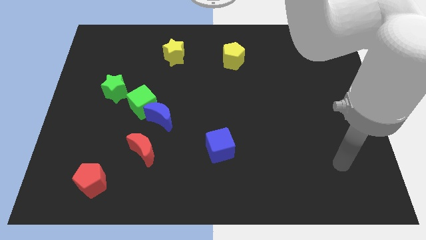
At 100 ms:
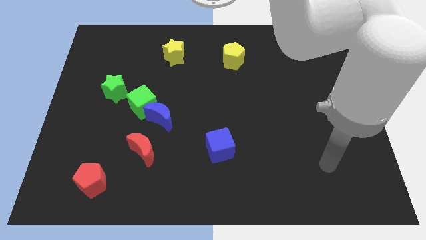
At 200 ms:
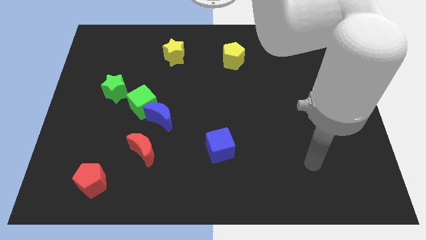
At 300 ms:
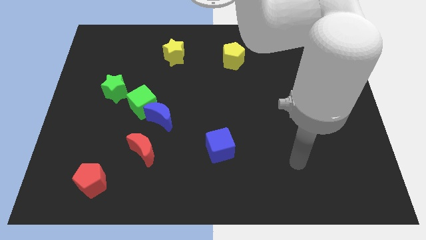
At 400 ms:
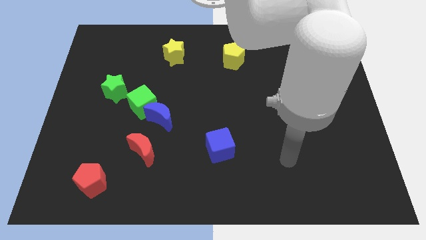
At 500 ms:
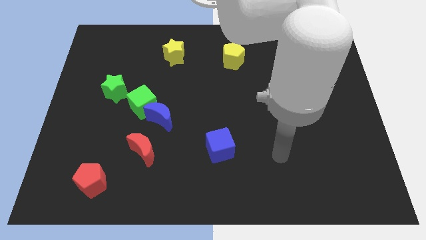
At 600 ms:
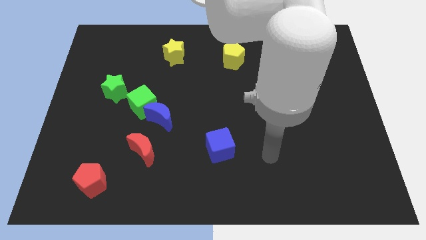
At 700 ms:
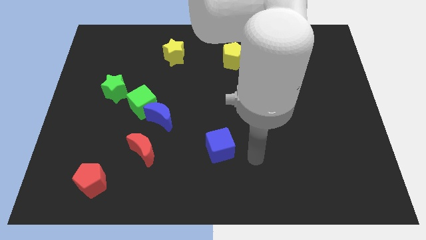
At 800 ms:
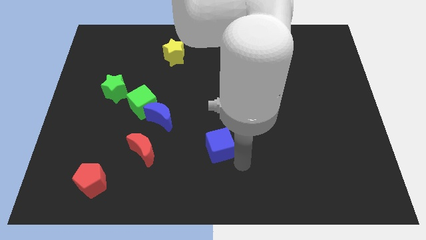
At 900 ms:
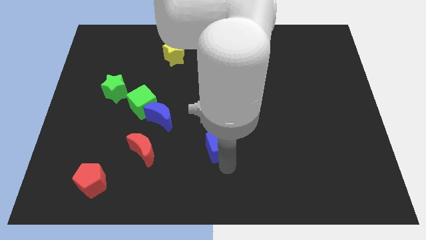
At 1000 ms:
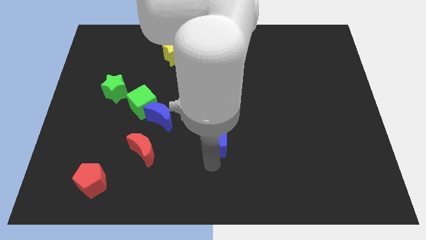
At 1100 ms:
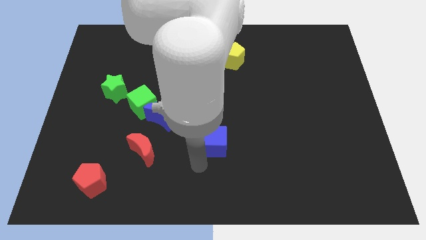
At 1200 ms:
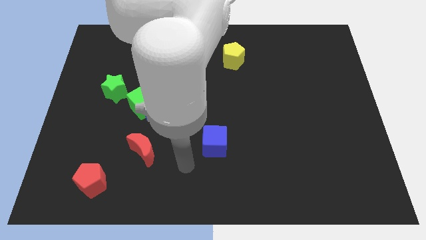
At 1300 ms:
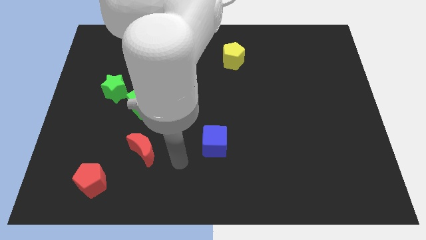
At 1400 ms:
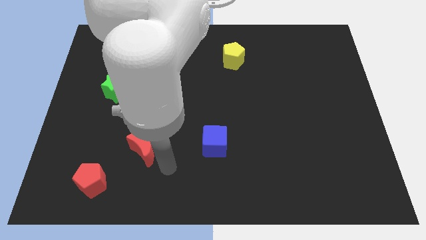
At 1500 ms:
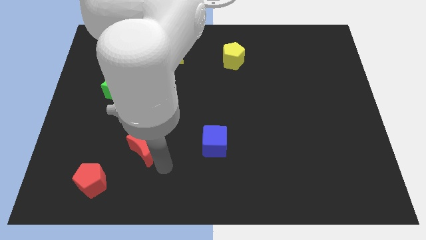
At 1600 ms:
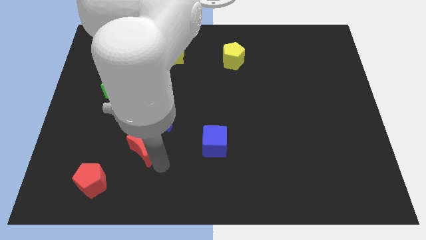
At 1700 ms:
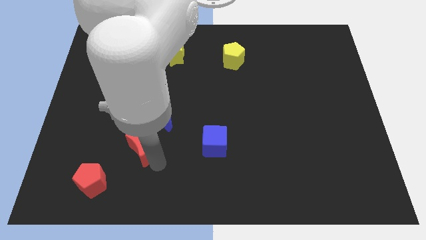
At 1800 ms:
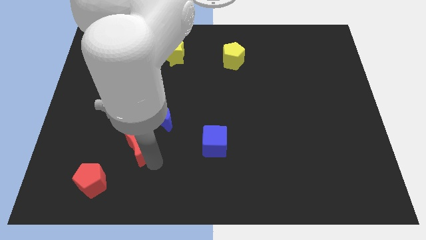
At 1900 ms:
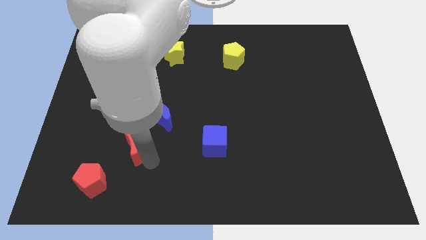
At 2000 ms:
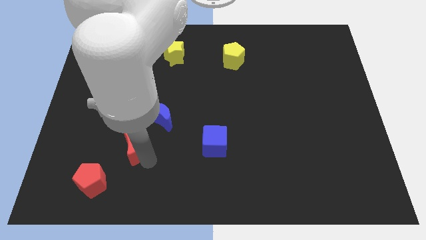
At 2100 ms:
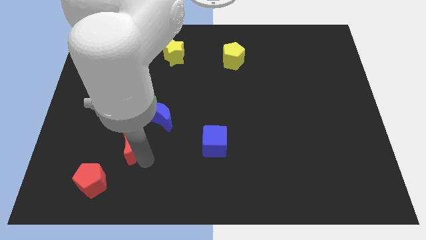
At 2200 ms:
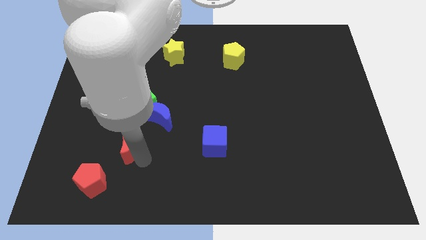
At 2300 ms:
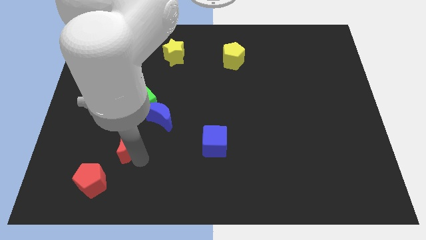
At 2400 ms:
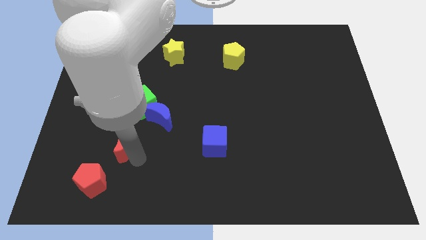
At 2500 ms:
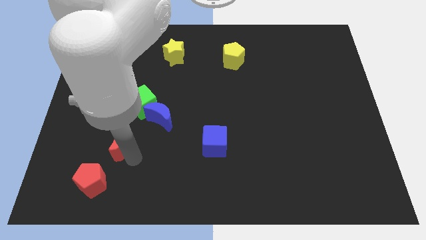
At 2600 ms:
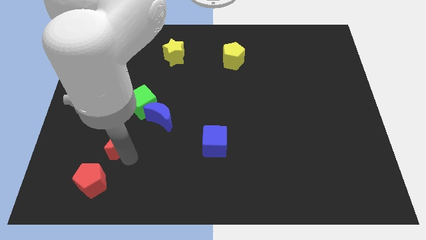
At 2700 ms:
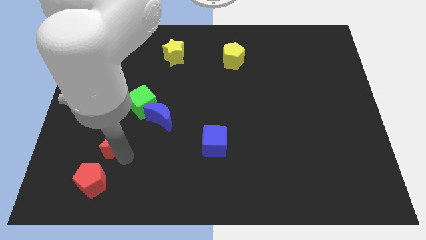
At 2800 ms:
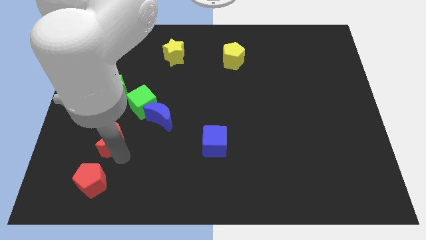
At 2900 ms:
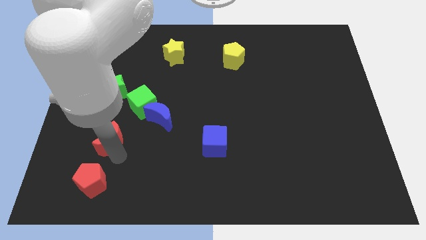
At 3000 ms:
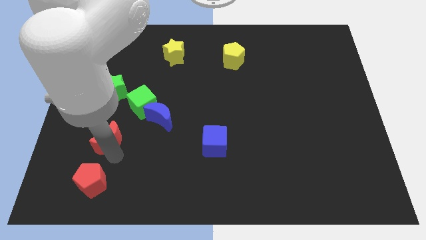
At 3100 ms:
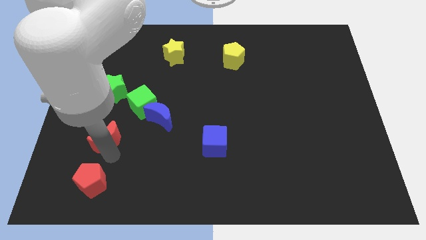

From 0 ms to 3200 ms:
slightly slide the red moon up and to the left

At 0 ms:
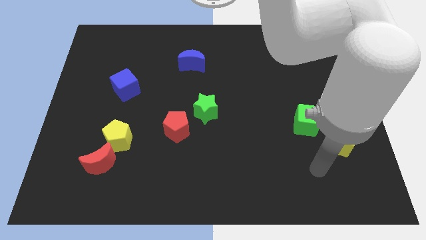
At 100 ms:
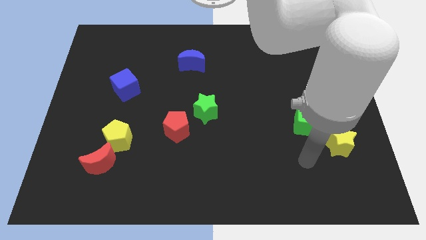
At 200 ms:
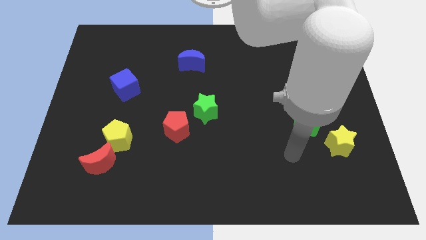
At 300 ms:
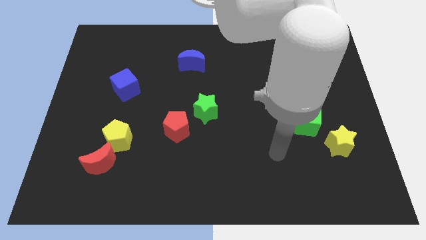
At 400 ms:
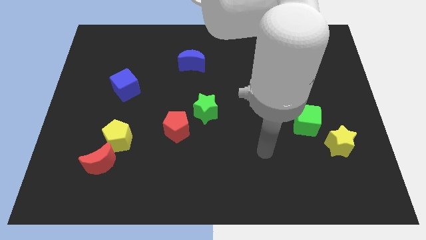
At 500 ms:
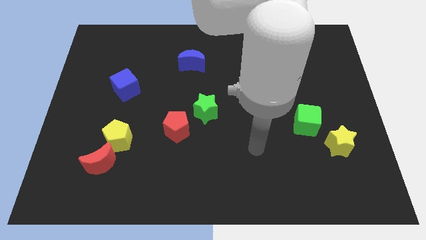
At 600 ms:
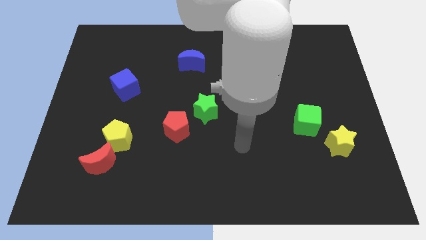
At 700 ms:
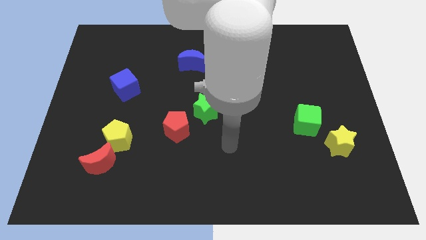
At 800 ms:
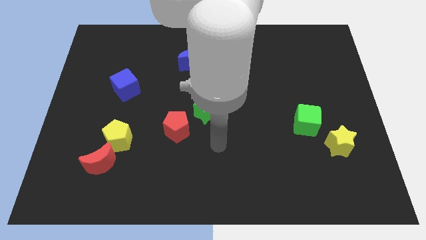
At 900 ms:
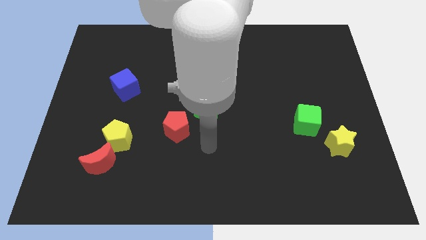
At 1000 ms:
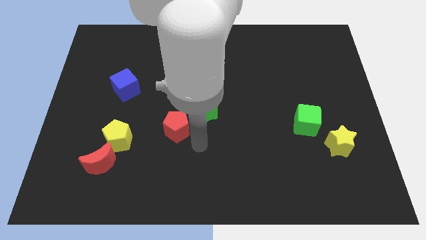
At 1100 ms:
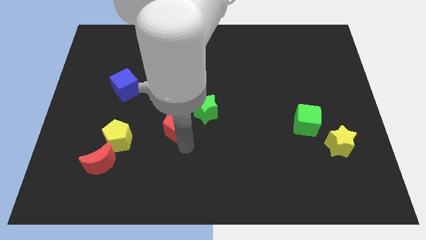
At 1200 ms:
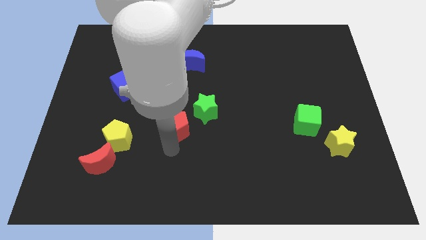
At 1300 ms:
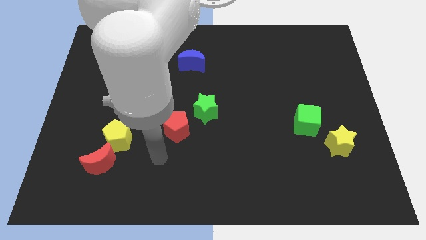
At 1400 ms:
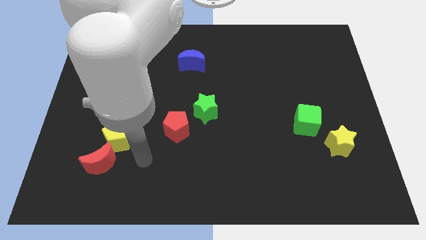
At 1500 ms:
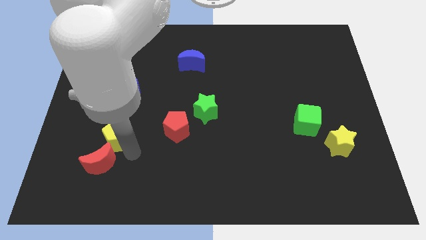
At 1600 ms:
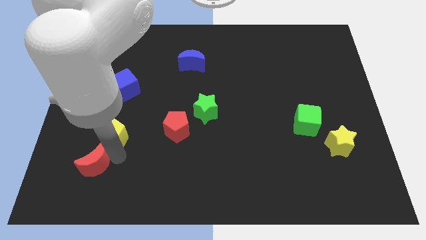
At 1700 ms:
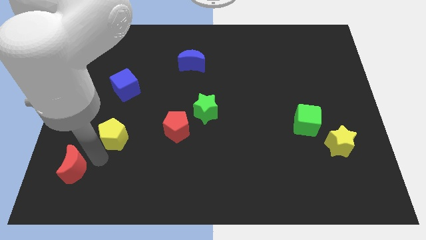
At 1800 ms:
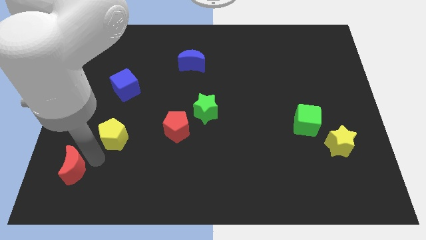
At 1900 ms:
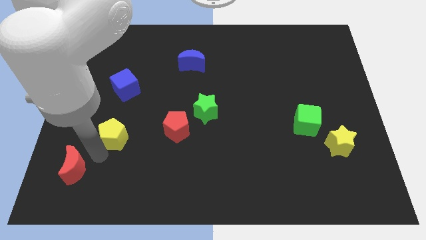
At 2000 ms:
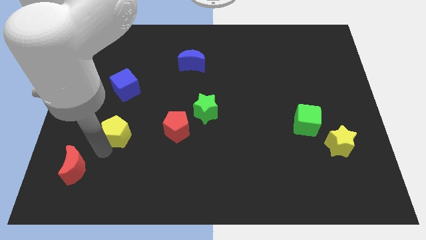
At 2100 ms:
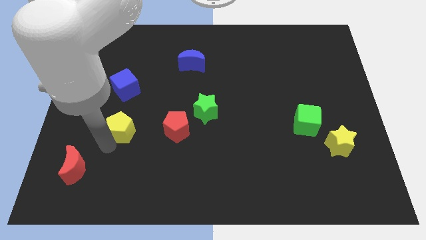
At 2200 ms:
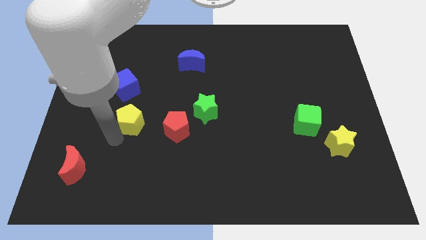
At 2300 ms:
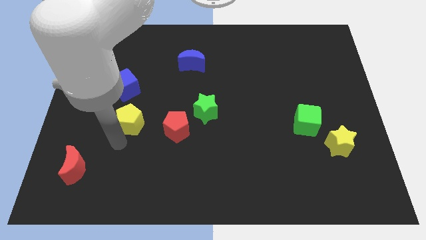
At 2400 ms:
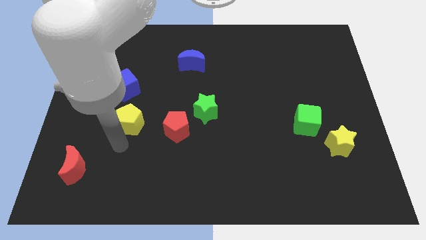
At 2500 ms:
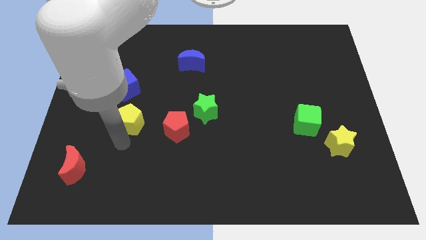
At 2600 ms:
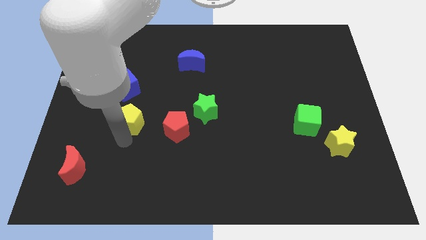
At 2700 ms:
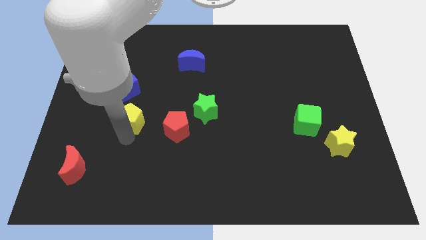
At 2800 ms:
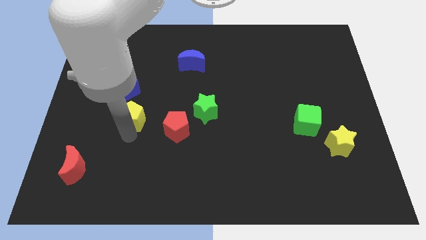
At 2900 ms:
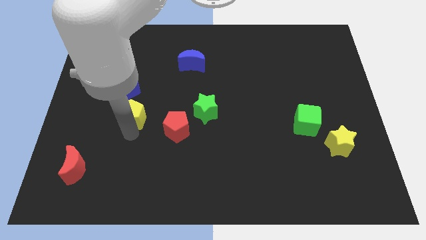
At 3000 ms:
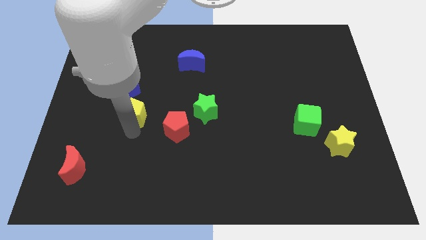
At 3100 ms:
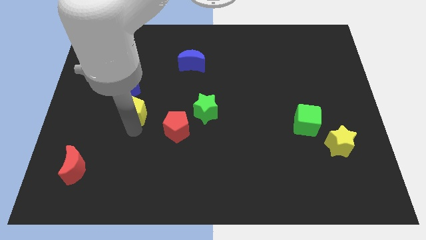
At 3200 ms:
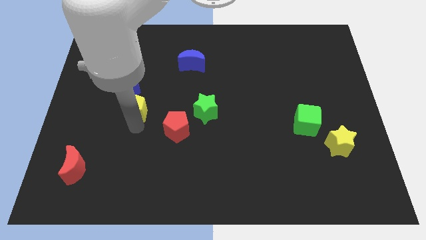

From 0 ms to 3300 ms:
move the yellow pentagon somewhat upwards

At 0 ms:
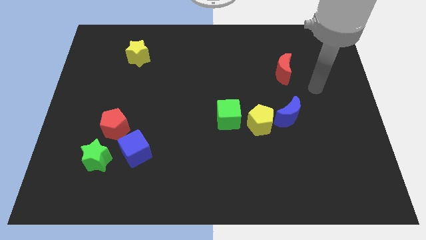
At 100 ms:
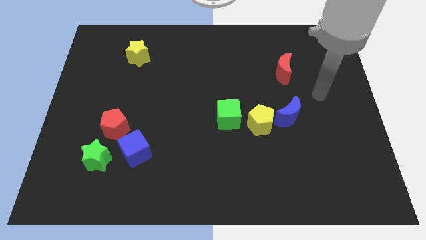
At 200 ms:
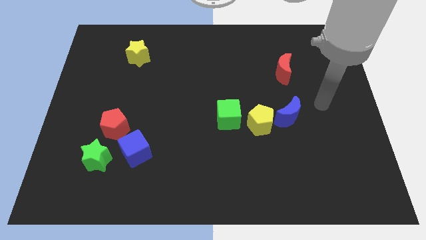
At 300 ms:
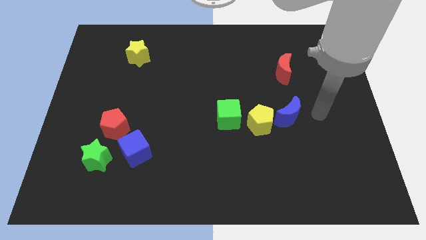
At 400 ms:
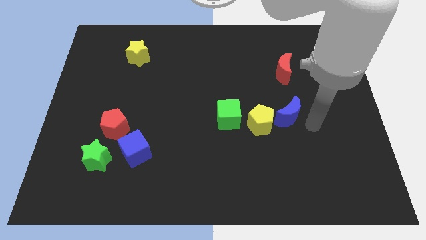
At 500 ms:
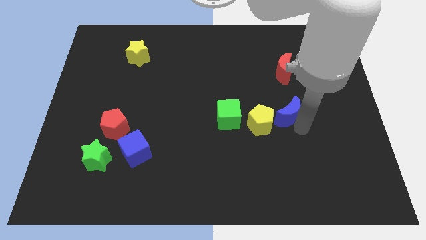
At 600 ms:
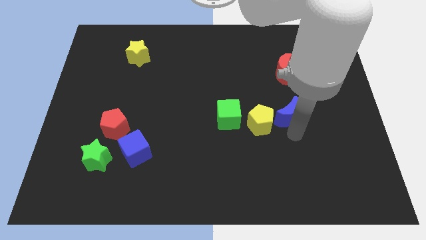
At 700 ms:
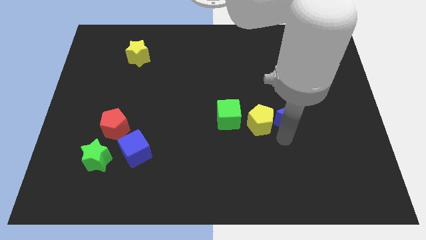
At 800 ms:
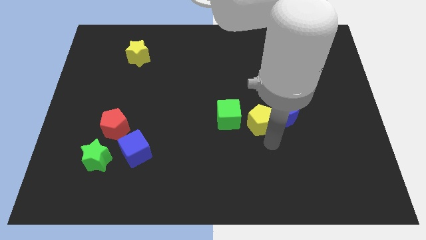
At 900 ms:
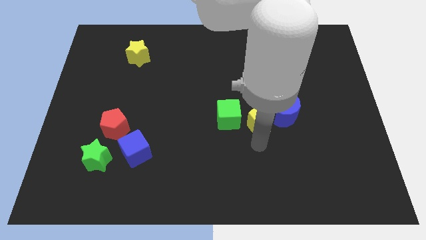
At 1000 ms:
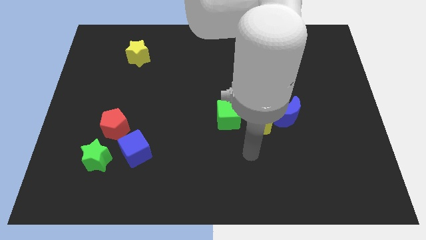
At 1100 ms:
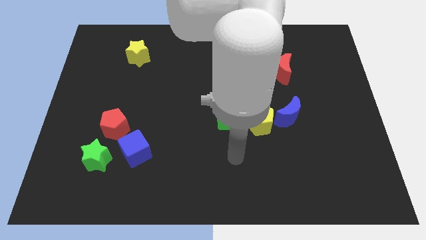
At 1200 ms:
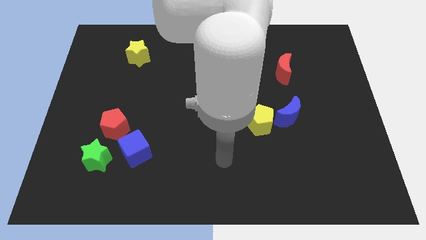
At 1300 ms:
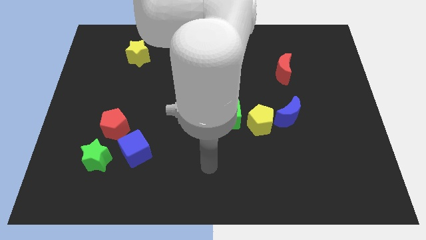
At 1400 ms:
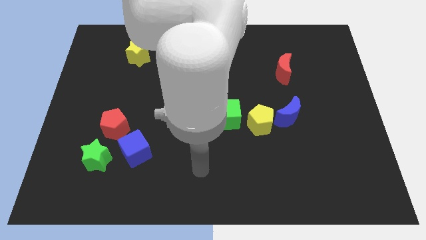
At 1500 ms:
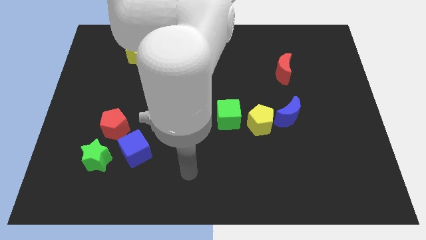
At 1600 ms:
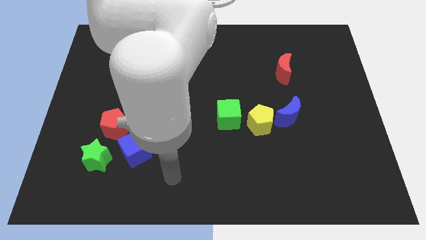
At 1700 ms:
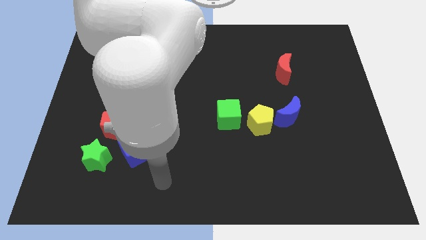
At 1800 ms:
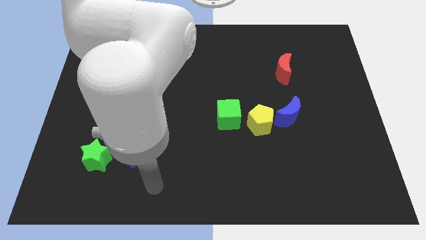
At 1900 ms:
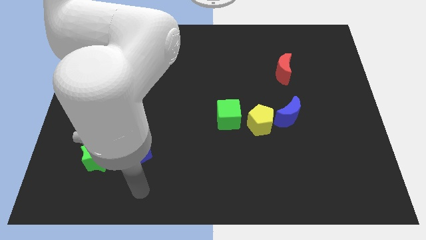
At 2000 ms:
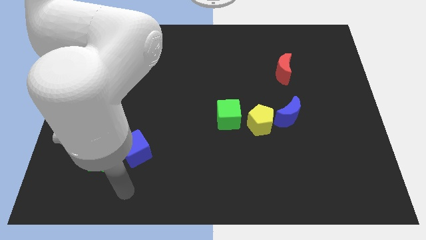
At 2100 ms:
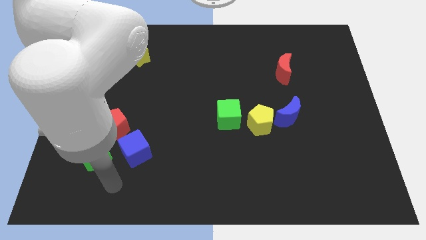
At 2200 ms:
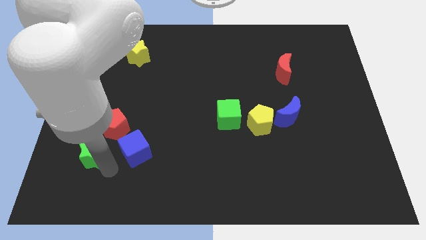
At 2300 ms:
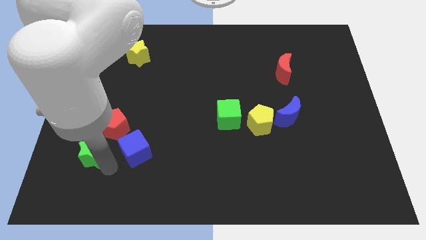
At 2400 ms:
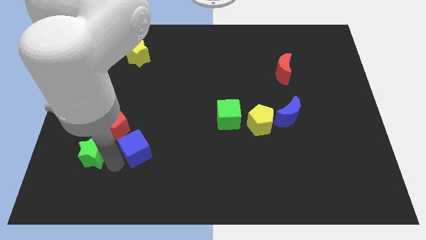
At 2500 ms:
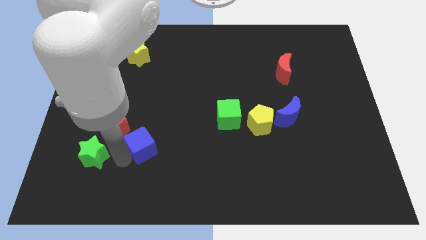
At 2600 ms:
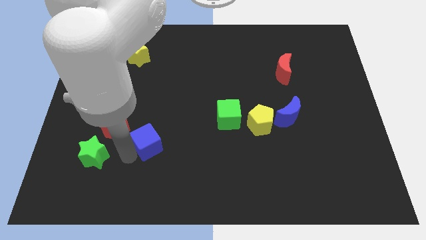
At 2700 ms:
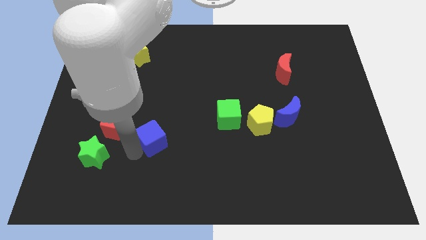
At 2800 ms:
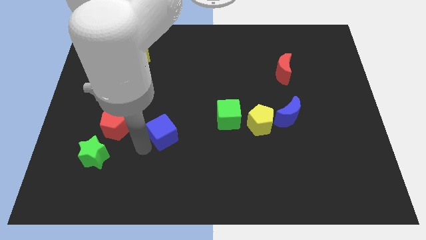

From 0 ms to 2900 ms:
slightly push the blue cube upwards and right diagonally
